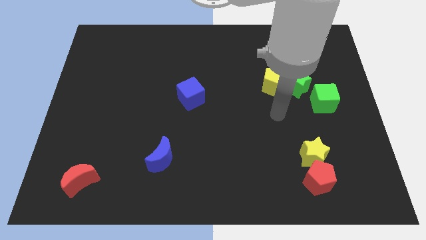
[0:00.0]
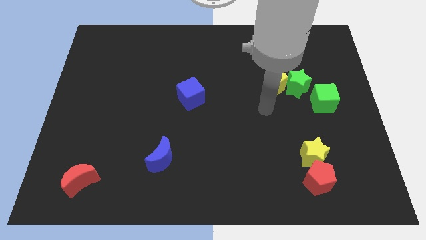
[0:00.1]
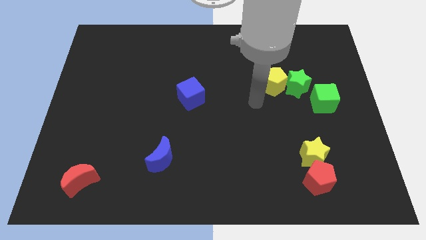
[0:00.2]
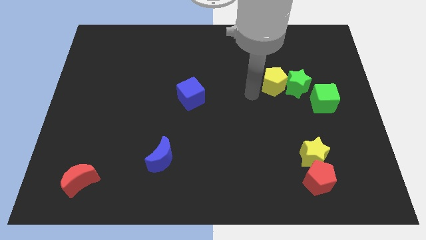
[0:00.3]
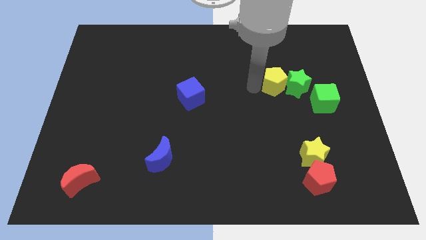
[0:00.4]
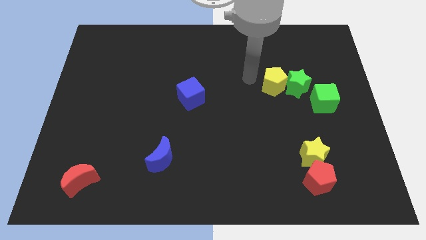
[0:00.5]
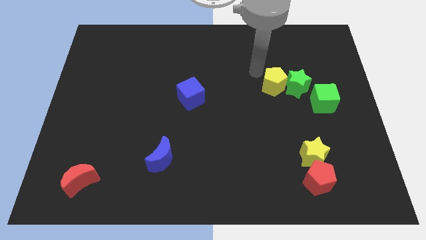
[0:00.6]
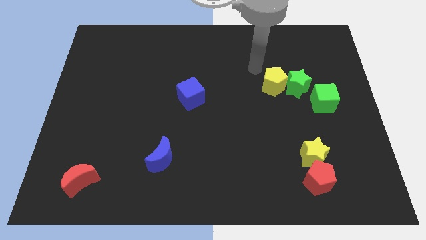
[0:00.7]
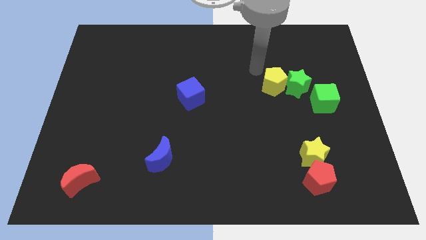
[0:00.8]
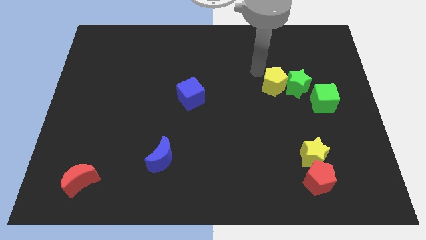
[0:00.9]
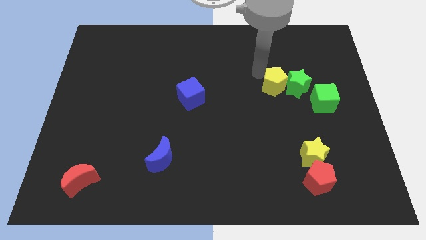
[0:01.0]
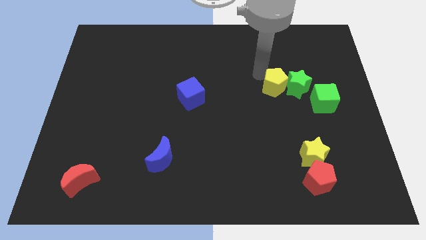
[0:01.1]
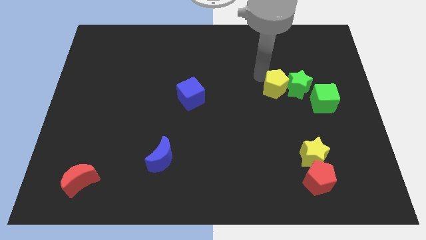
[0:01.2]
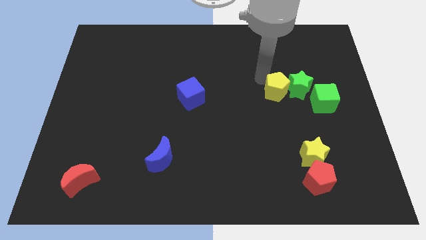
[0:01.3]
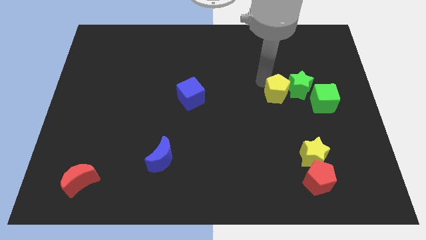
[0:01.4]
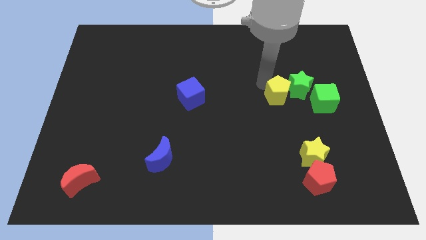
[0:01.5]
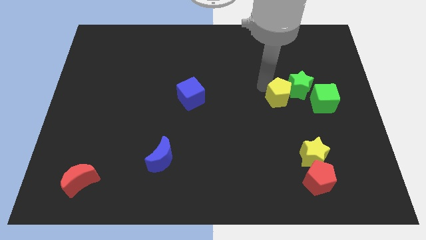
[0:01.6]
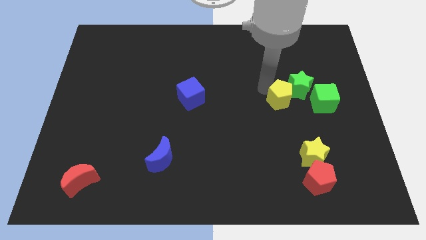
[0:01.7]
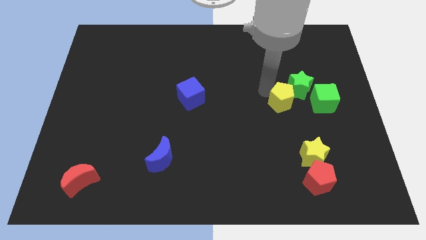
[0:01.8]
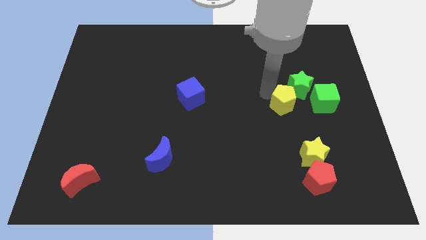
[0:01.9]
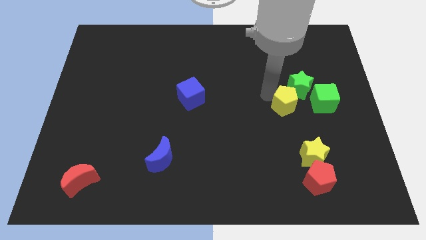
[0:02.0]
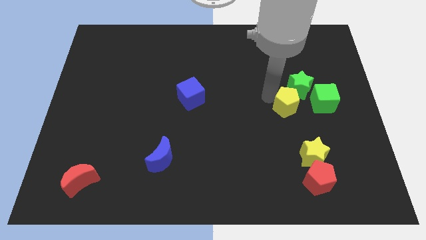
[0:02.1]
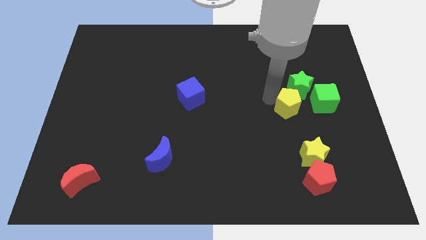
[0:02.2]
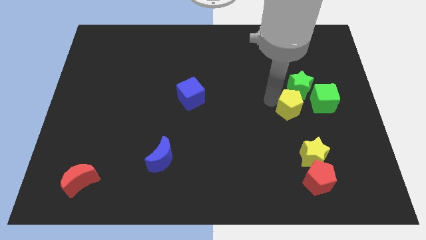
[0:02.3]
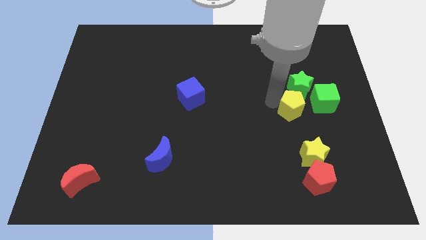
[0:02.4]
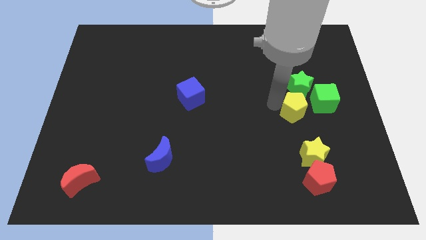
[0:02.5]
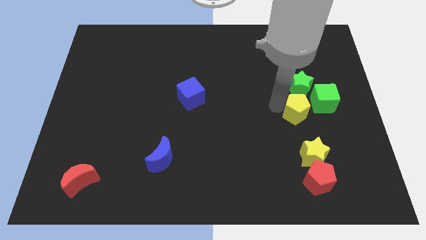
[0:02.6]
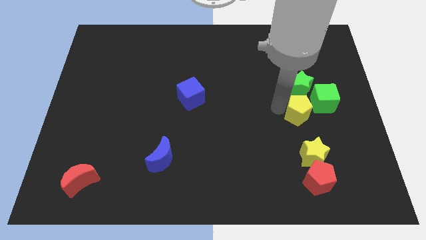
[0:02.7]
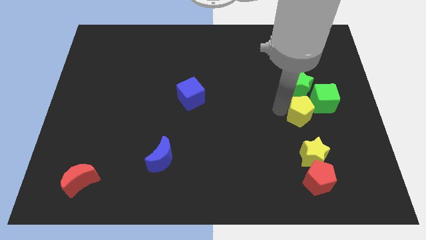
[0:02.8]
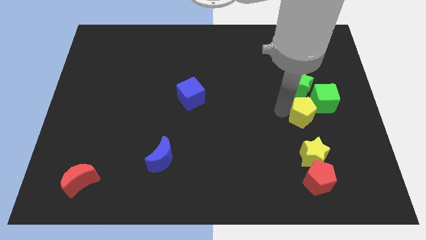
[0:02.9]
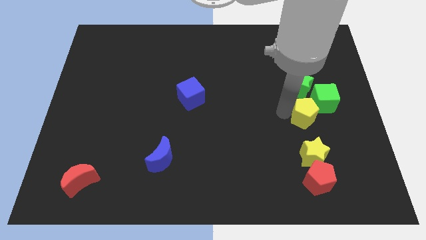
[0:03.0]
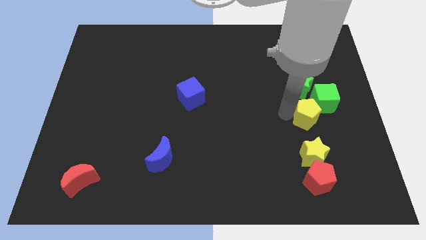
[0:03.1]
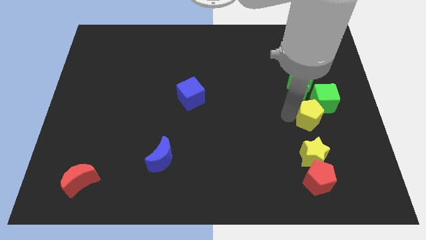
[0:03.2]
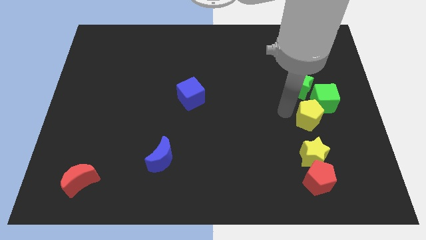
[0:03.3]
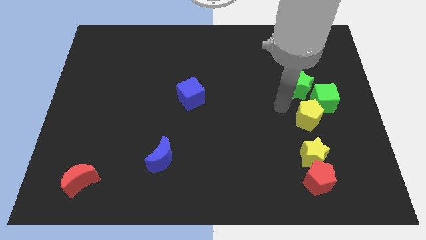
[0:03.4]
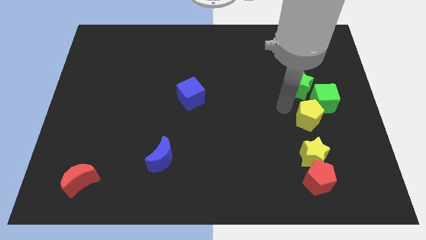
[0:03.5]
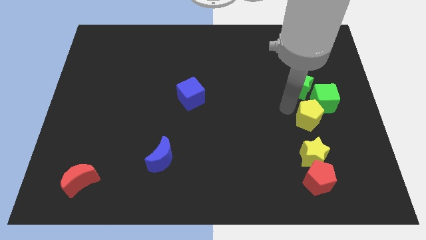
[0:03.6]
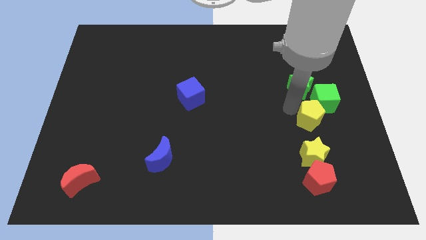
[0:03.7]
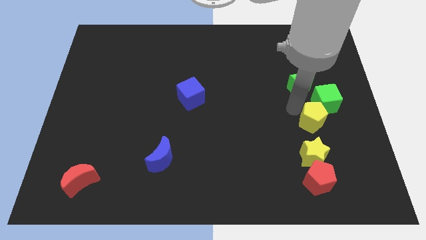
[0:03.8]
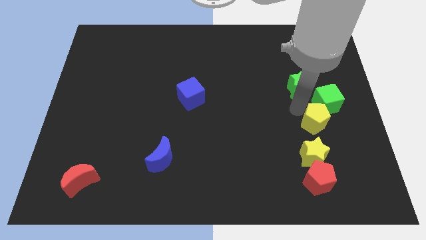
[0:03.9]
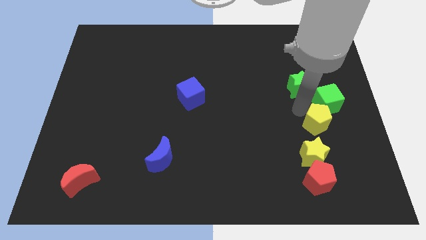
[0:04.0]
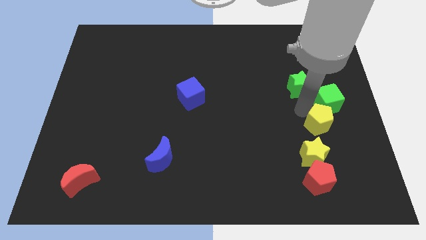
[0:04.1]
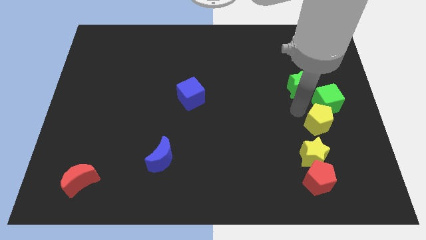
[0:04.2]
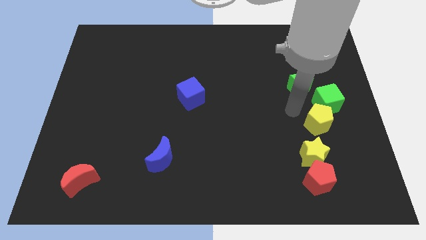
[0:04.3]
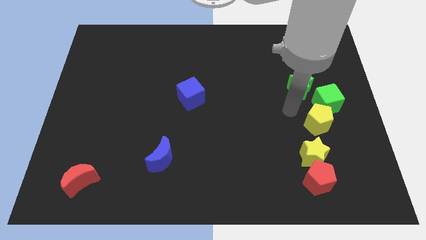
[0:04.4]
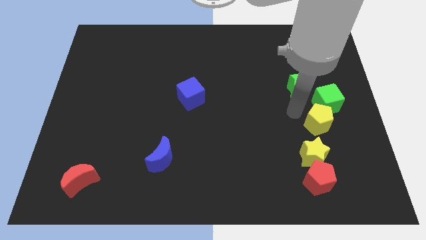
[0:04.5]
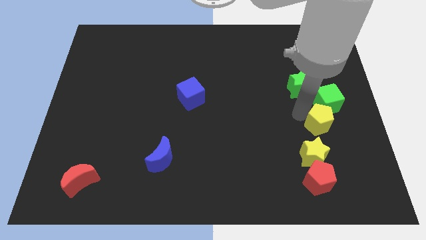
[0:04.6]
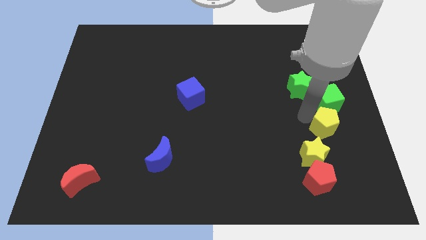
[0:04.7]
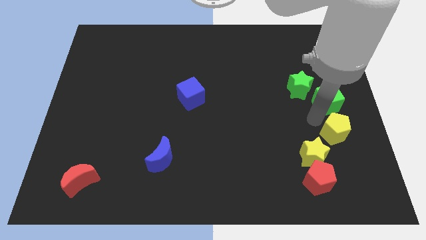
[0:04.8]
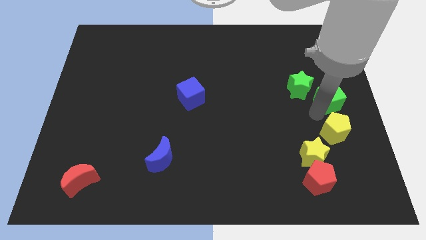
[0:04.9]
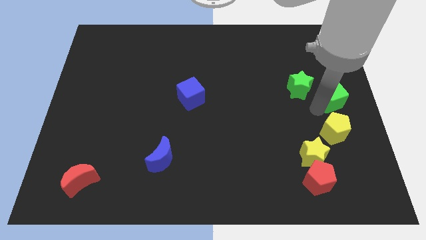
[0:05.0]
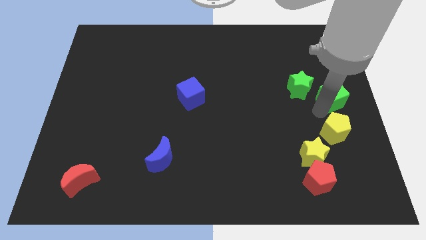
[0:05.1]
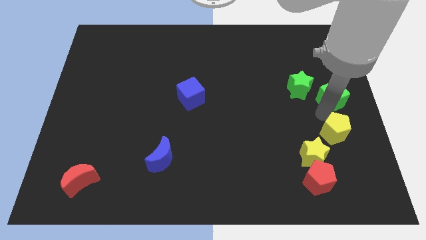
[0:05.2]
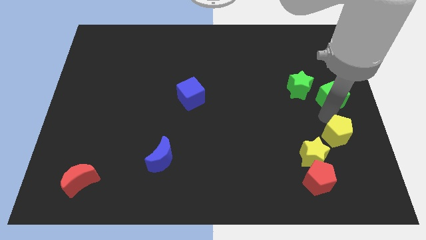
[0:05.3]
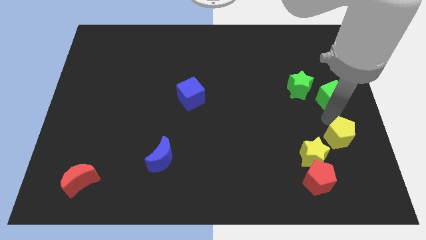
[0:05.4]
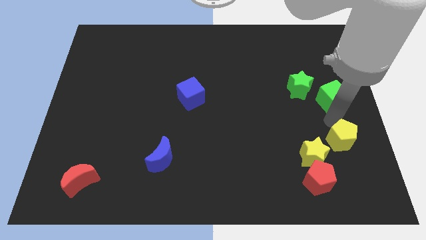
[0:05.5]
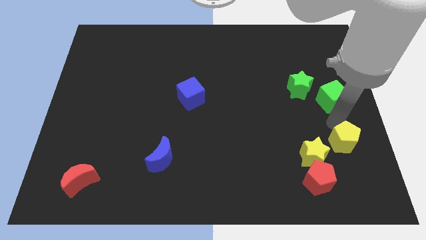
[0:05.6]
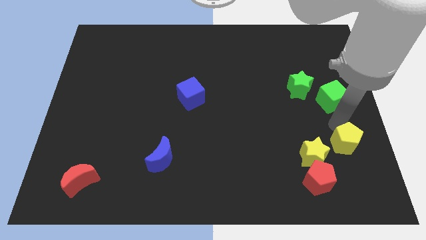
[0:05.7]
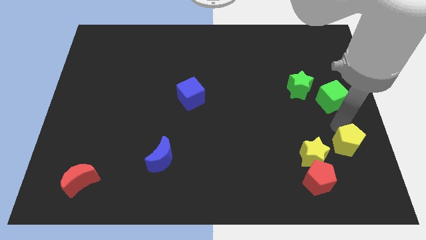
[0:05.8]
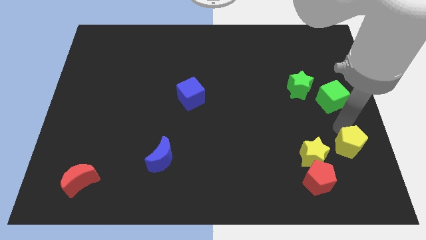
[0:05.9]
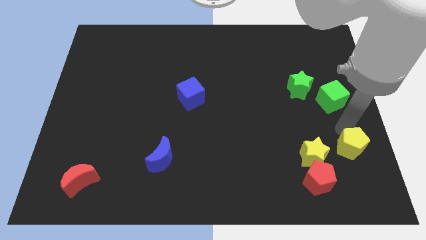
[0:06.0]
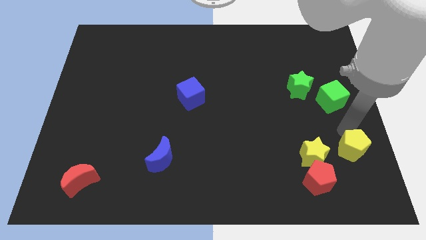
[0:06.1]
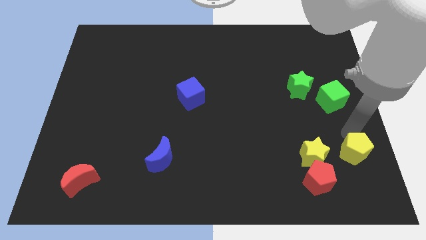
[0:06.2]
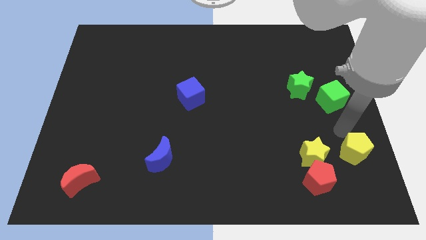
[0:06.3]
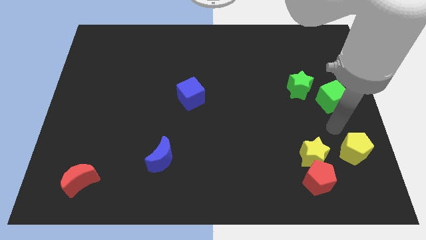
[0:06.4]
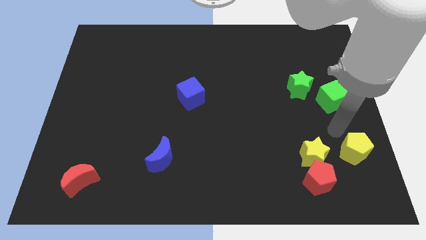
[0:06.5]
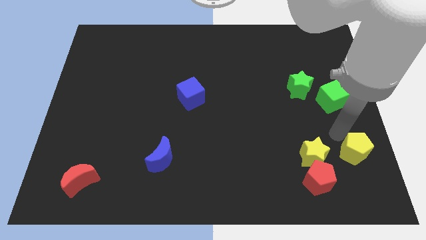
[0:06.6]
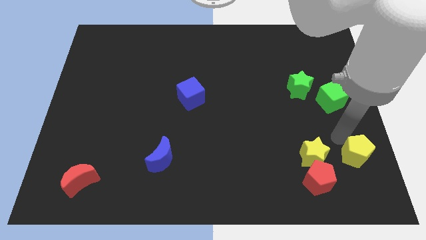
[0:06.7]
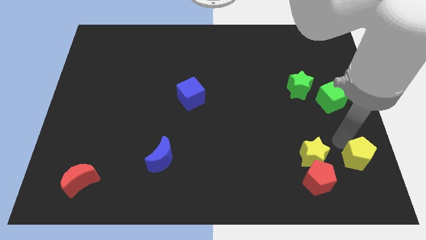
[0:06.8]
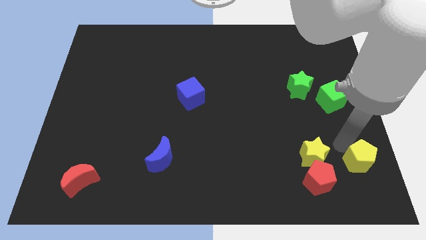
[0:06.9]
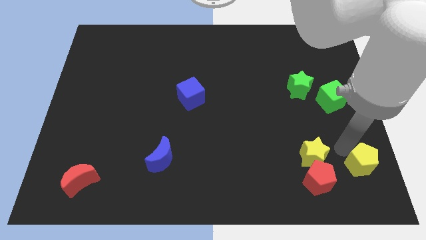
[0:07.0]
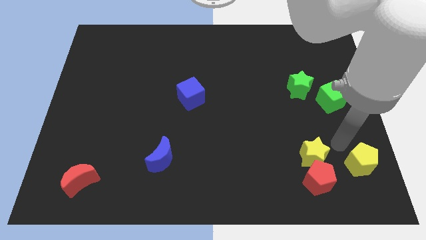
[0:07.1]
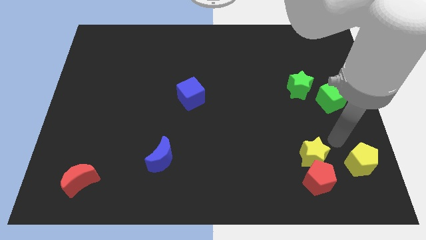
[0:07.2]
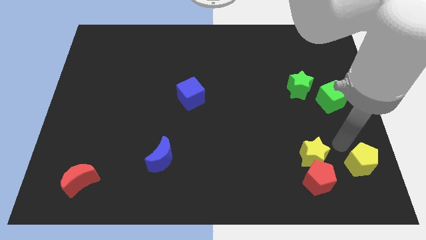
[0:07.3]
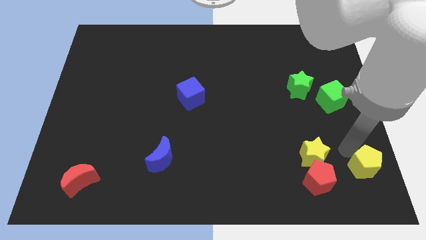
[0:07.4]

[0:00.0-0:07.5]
slide the yellow pentagon to the bottom right
